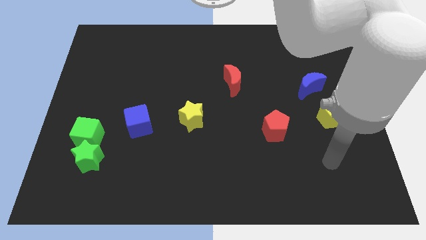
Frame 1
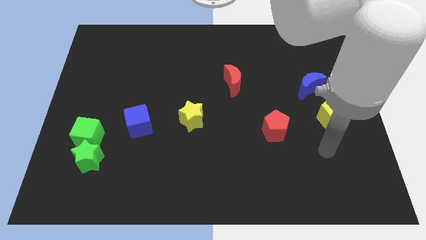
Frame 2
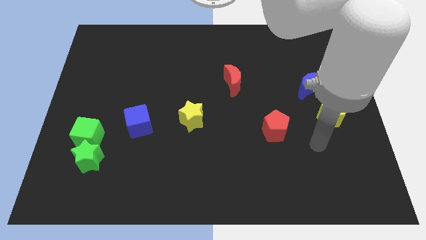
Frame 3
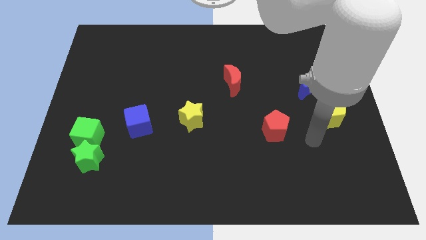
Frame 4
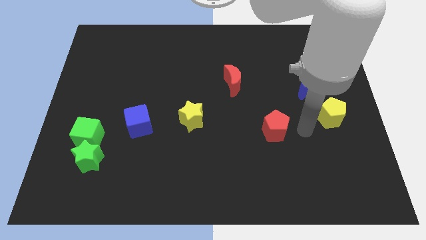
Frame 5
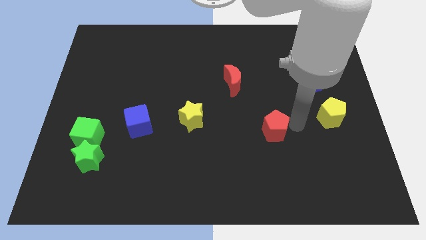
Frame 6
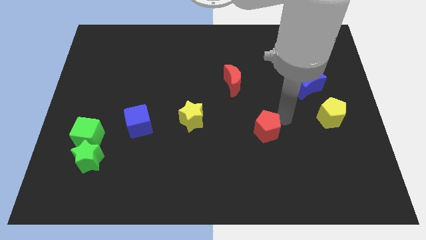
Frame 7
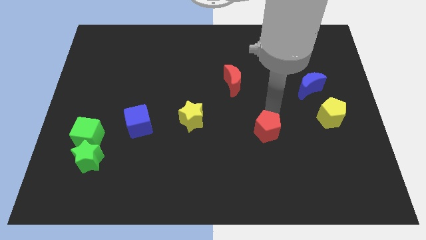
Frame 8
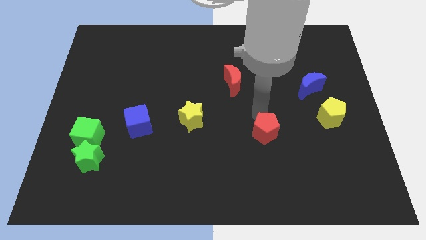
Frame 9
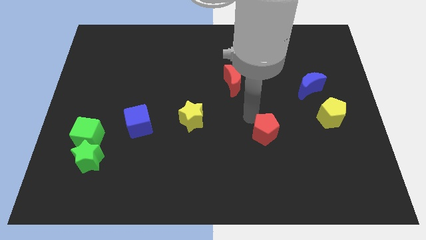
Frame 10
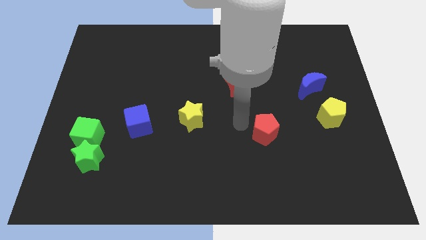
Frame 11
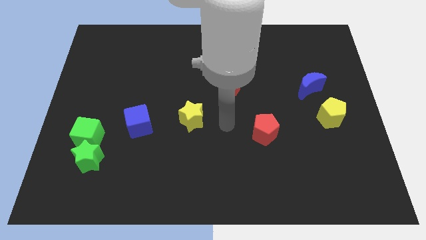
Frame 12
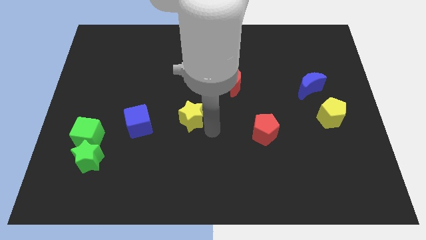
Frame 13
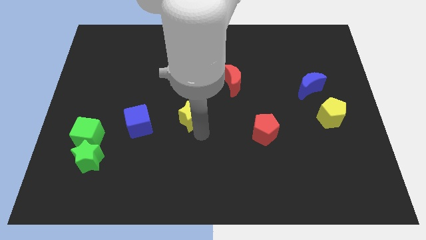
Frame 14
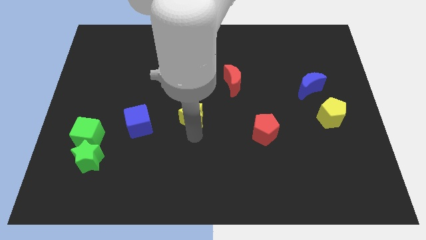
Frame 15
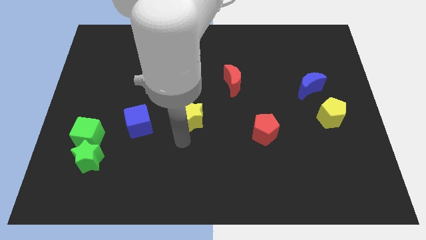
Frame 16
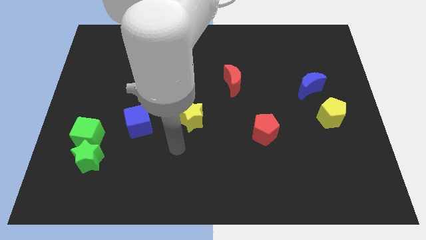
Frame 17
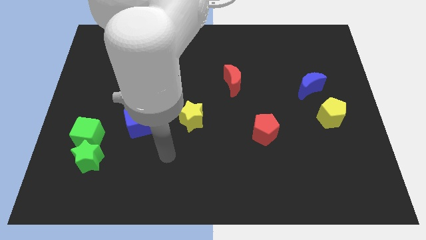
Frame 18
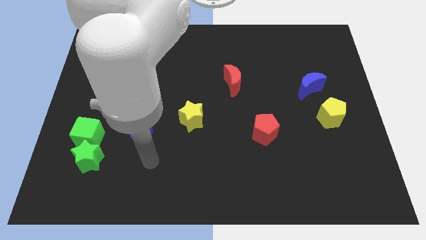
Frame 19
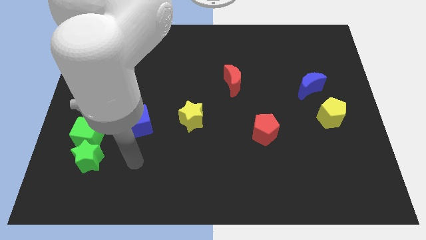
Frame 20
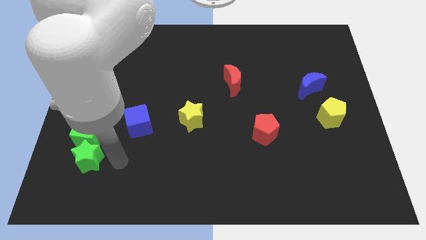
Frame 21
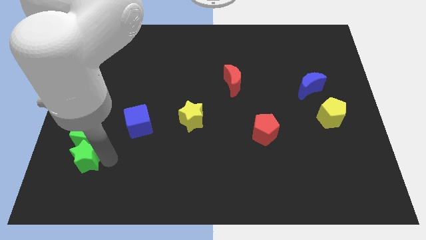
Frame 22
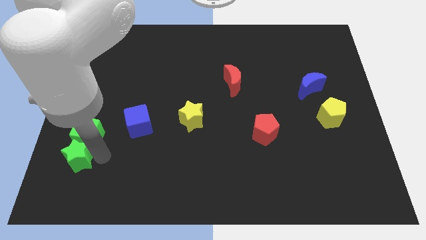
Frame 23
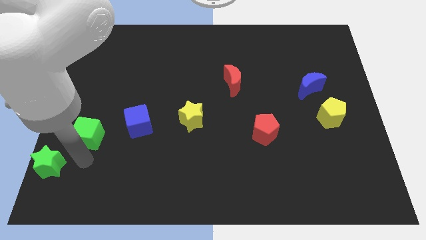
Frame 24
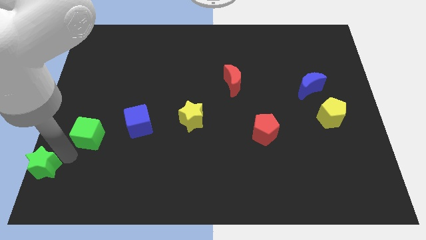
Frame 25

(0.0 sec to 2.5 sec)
move the green cube away from the green star

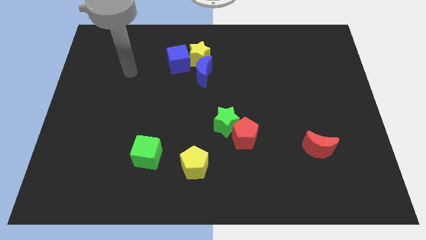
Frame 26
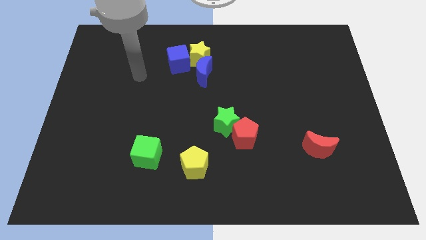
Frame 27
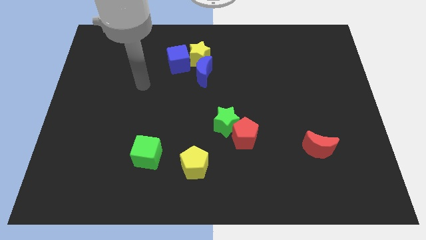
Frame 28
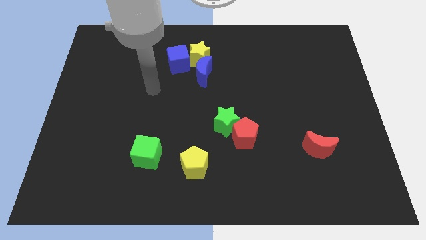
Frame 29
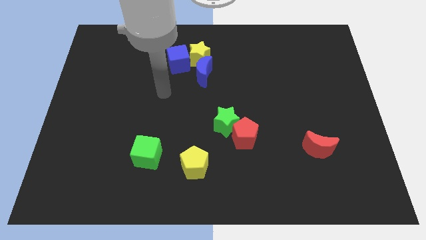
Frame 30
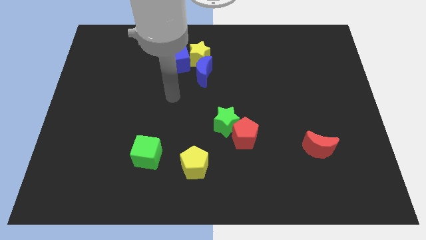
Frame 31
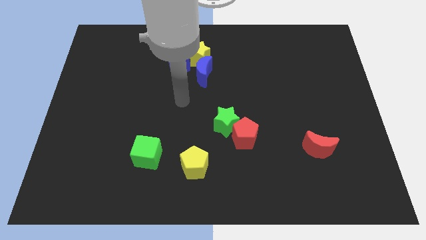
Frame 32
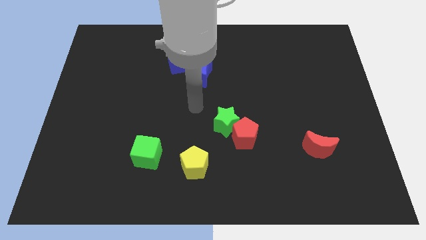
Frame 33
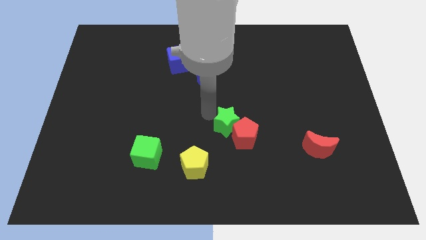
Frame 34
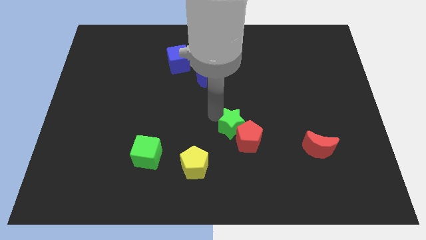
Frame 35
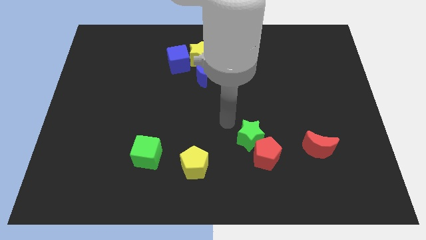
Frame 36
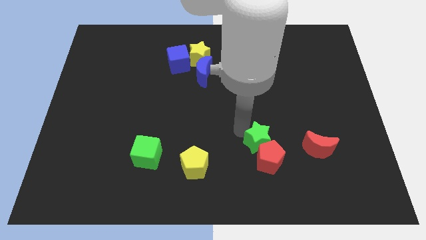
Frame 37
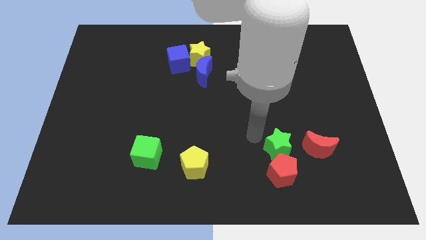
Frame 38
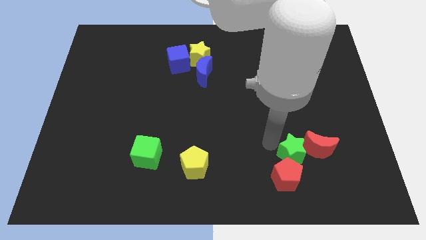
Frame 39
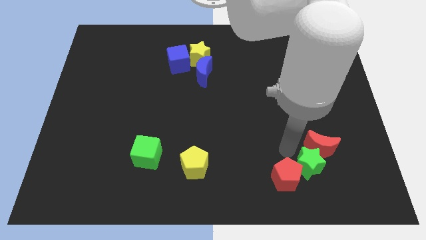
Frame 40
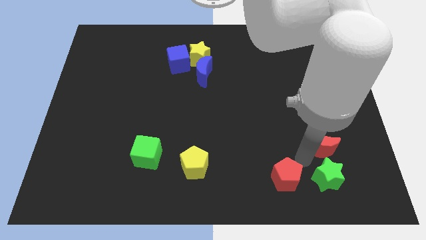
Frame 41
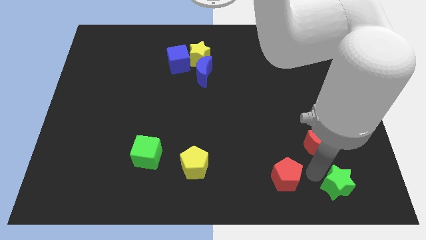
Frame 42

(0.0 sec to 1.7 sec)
separate the red pentagon from the green star

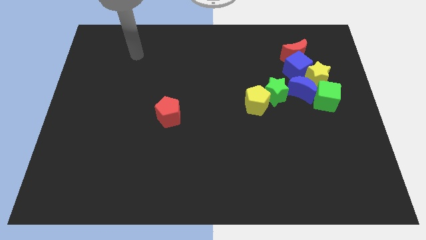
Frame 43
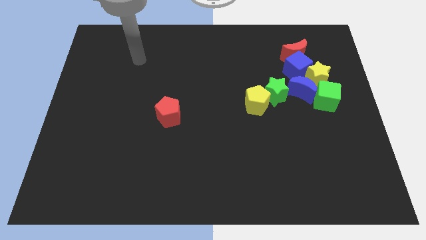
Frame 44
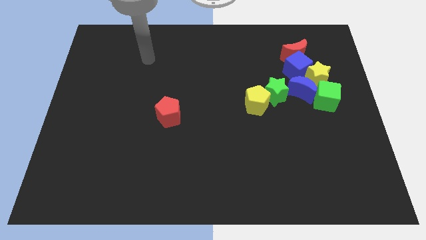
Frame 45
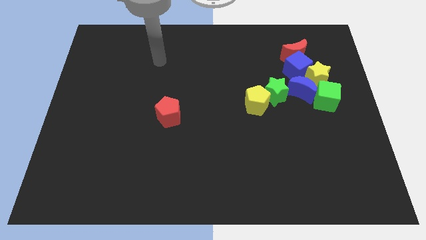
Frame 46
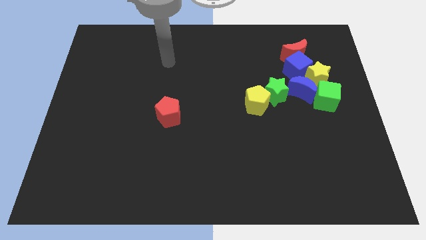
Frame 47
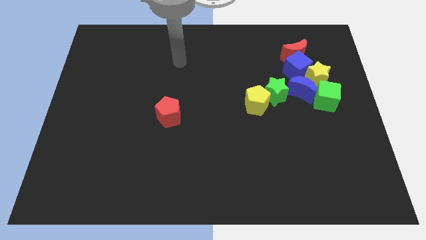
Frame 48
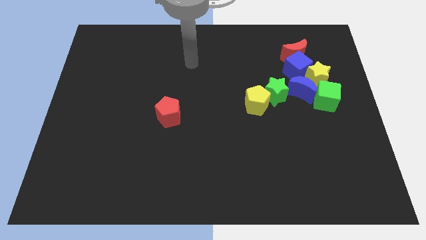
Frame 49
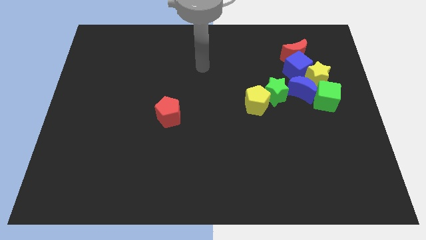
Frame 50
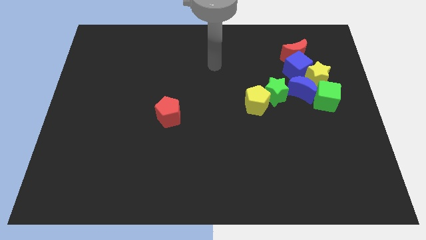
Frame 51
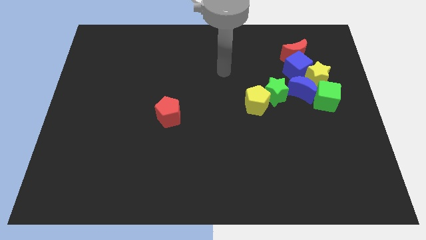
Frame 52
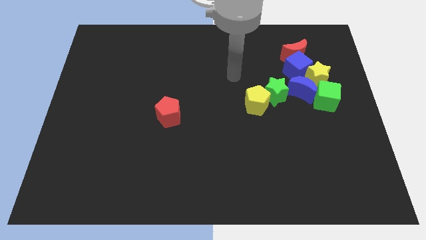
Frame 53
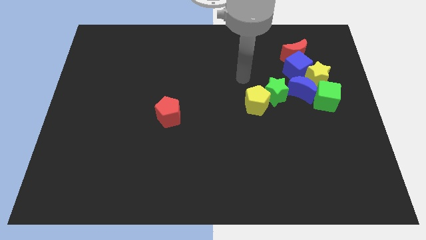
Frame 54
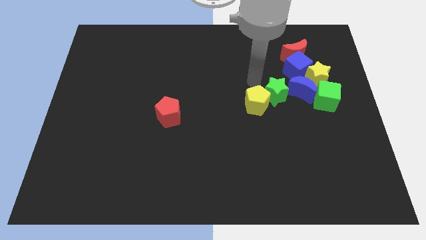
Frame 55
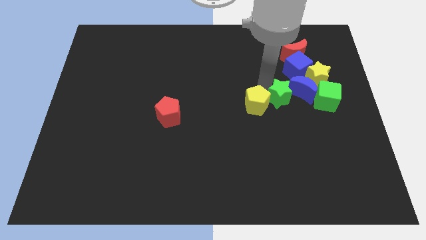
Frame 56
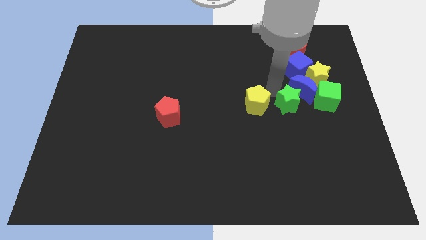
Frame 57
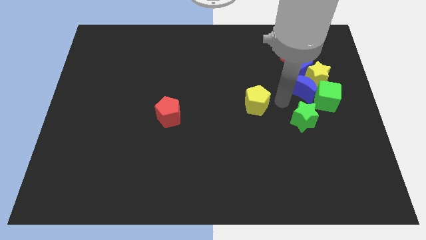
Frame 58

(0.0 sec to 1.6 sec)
pull the yellow pentagon apart from the green star

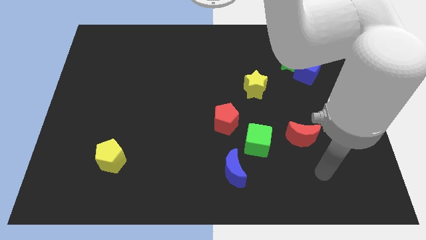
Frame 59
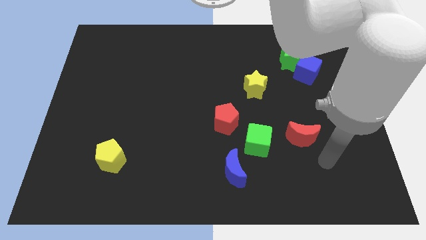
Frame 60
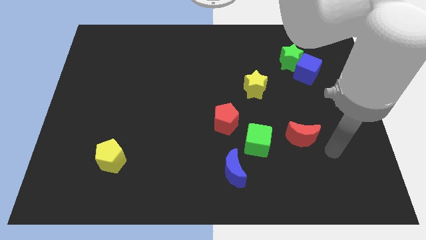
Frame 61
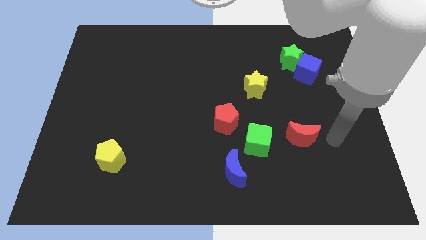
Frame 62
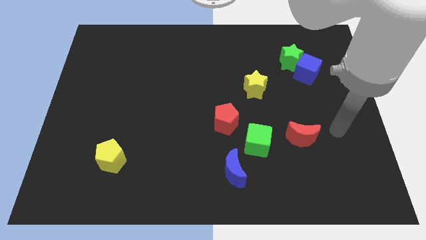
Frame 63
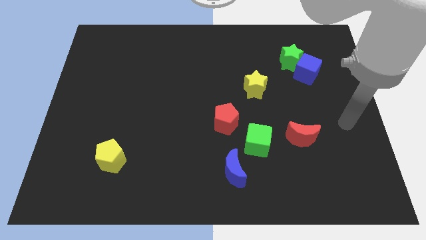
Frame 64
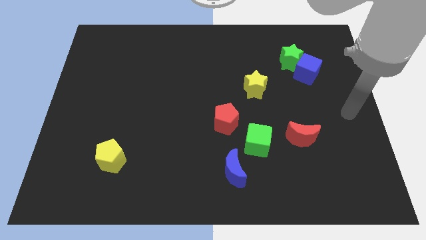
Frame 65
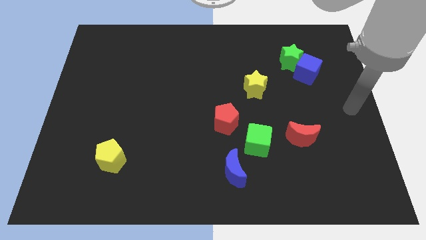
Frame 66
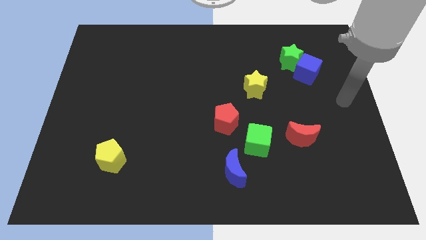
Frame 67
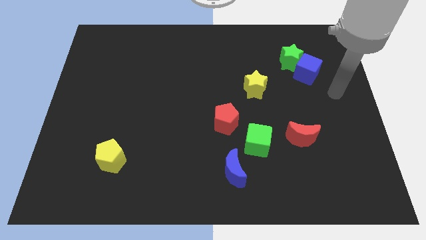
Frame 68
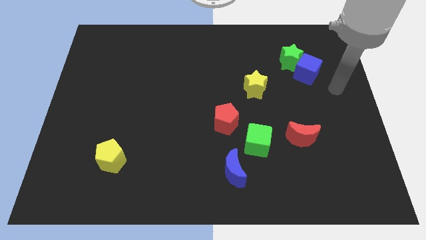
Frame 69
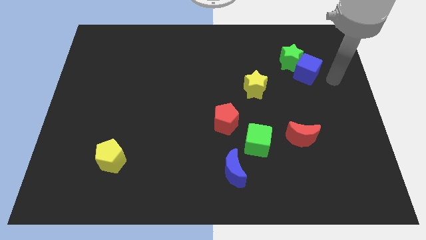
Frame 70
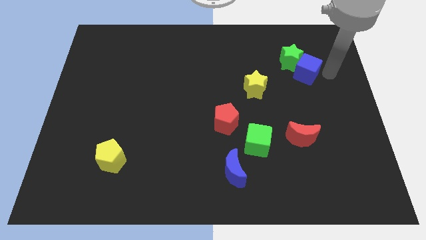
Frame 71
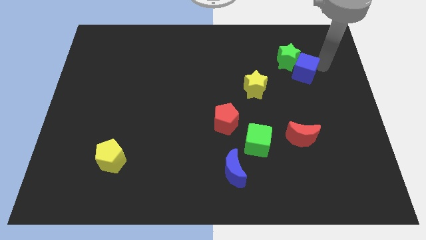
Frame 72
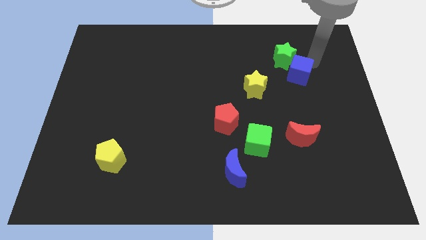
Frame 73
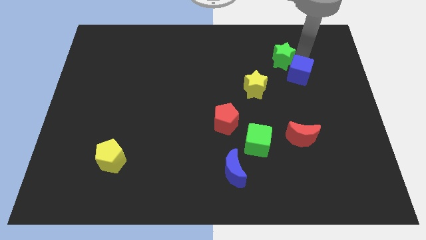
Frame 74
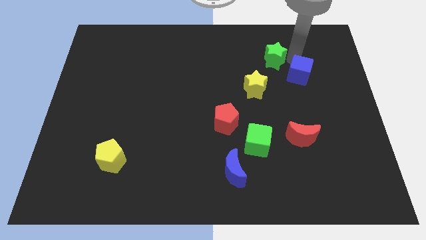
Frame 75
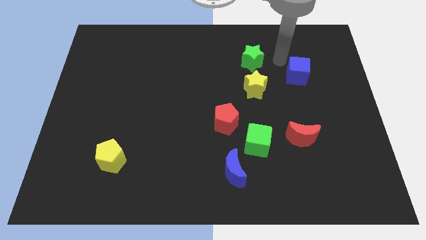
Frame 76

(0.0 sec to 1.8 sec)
pull the blue cube apart from the green star

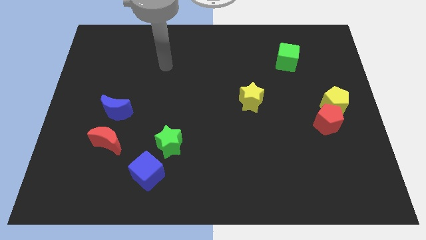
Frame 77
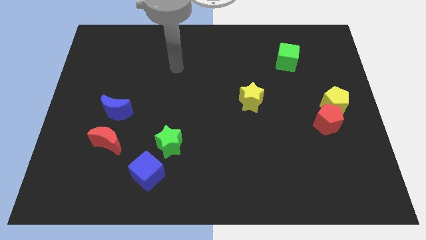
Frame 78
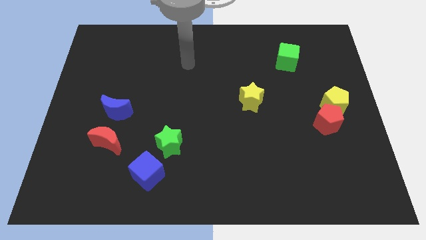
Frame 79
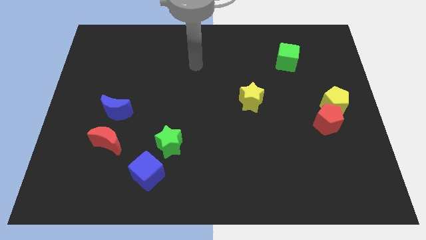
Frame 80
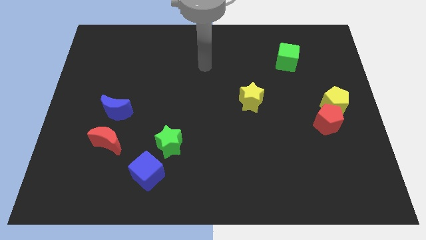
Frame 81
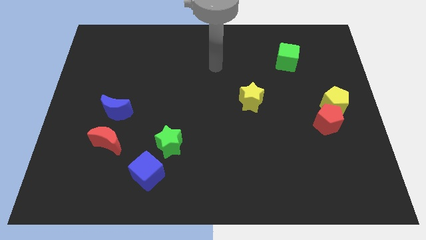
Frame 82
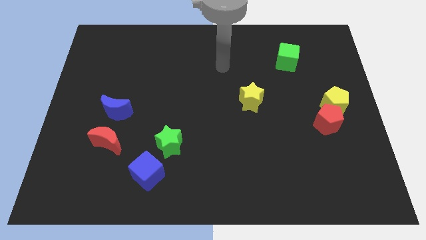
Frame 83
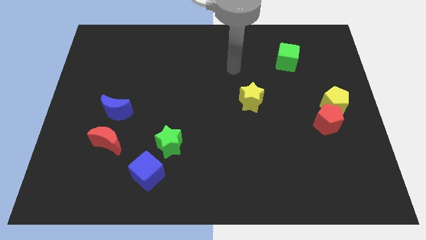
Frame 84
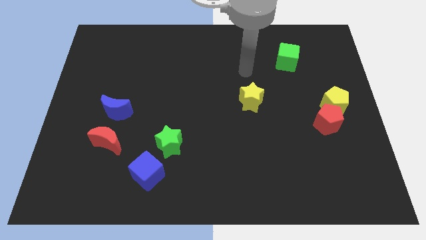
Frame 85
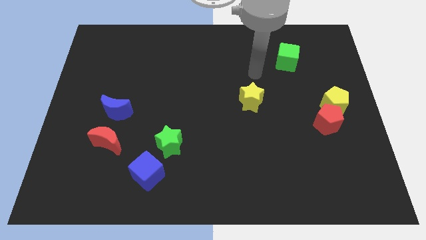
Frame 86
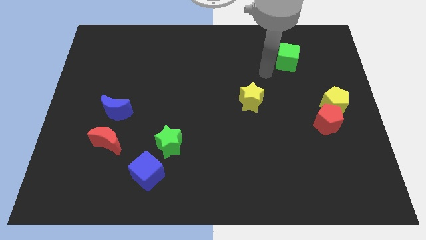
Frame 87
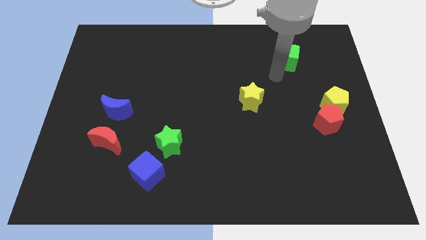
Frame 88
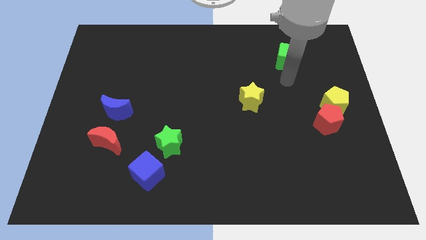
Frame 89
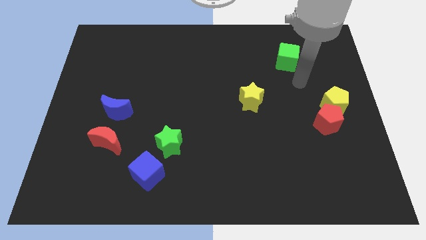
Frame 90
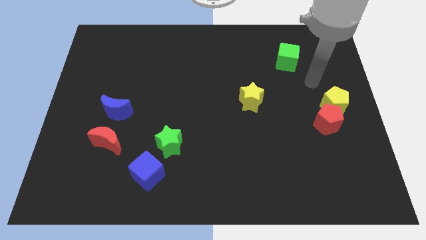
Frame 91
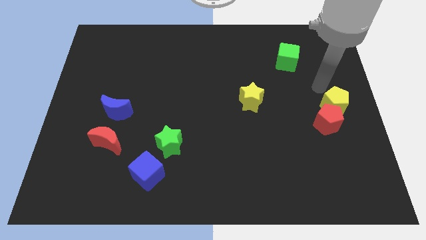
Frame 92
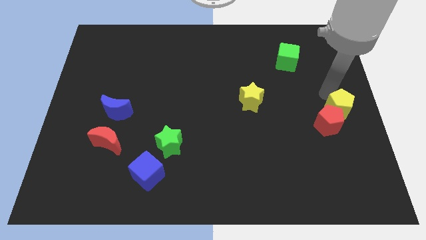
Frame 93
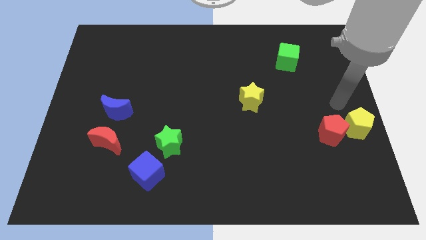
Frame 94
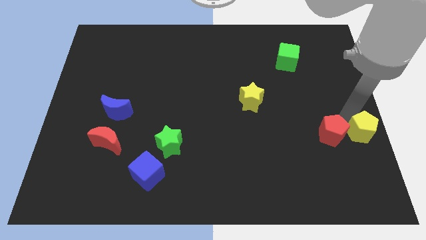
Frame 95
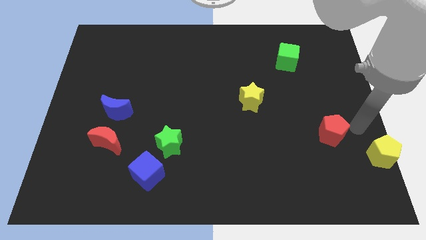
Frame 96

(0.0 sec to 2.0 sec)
move the red pentagon away from the yellow pentagon
